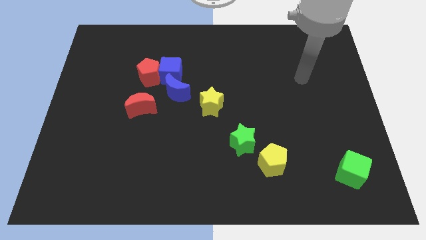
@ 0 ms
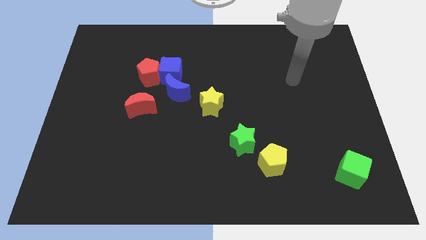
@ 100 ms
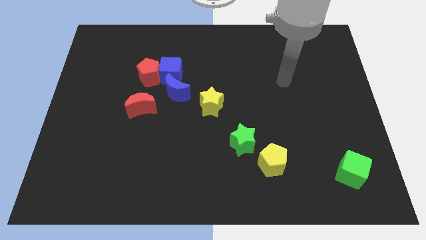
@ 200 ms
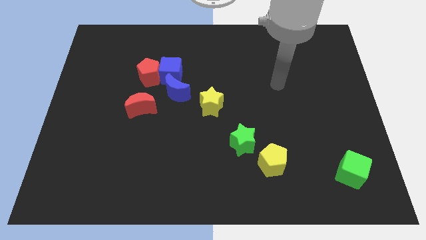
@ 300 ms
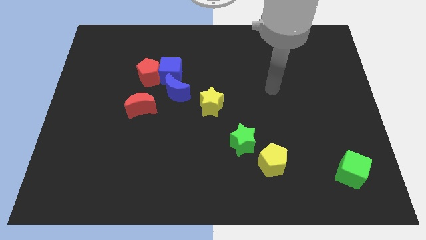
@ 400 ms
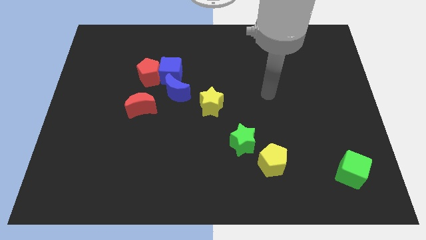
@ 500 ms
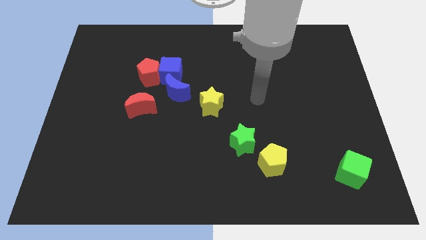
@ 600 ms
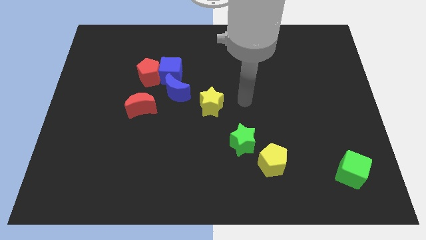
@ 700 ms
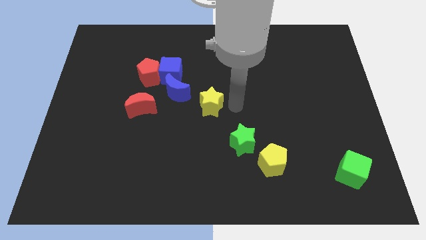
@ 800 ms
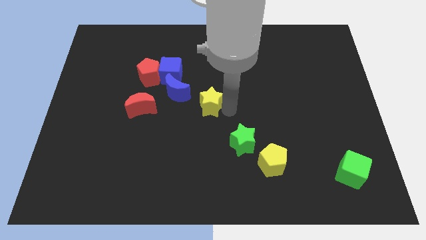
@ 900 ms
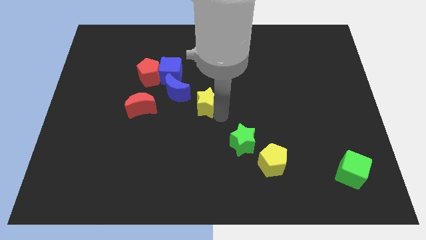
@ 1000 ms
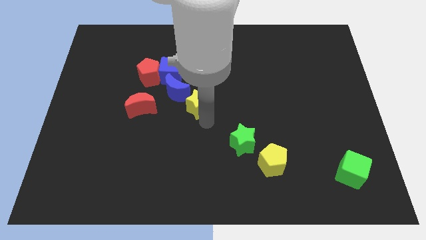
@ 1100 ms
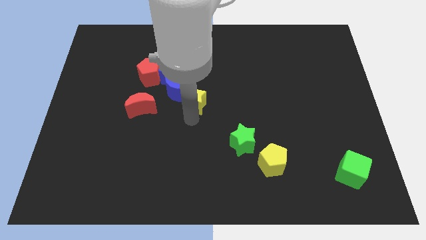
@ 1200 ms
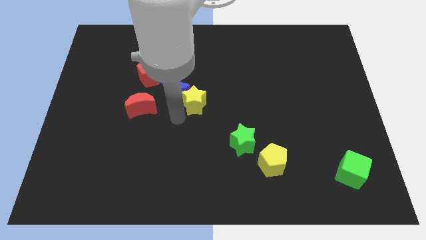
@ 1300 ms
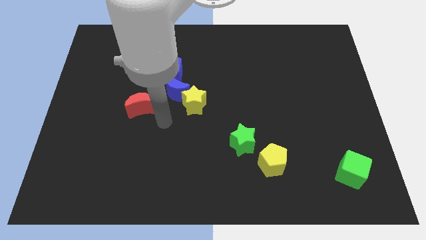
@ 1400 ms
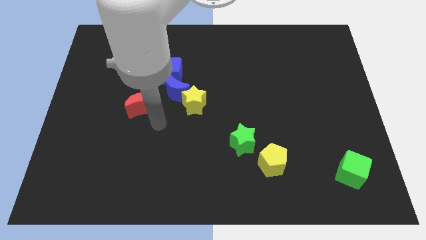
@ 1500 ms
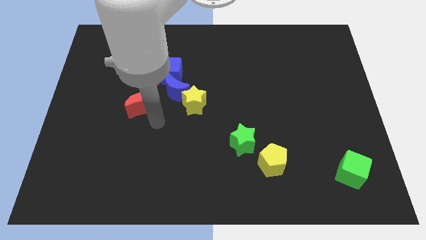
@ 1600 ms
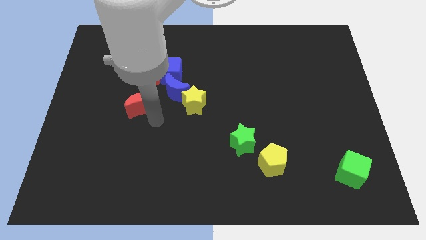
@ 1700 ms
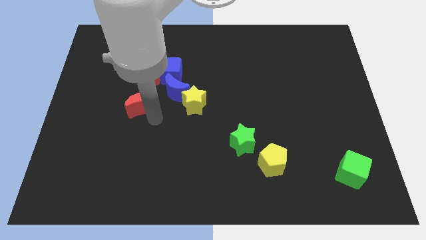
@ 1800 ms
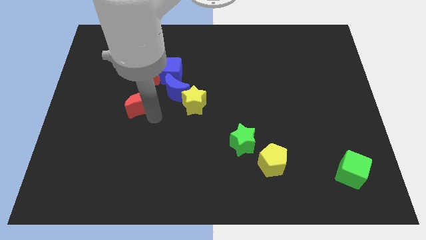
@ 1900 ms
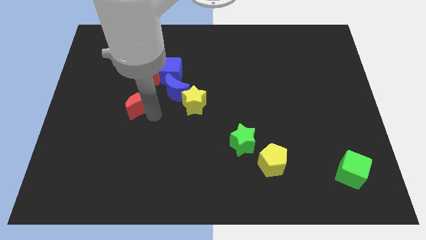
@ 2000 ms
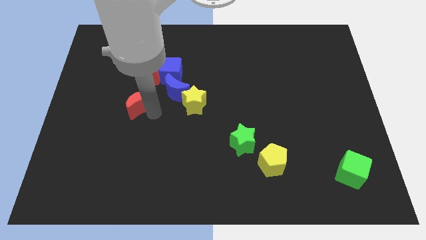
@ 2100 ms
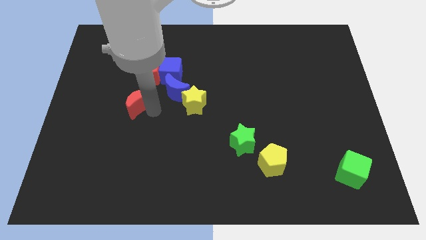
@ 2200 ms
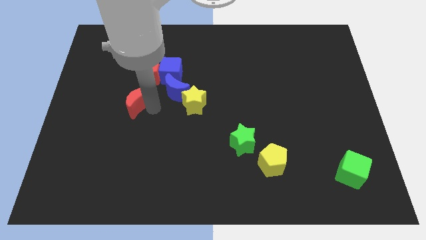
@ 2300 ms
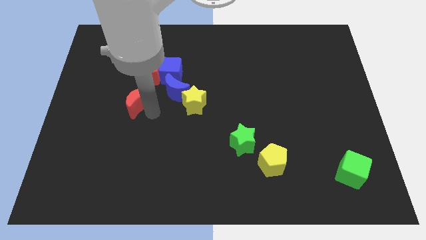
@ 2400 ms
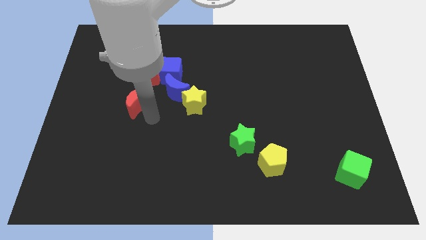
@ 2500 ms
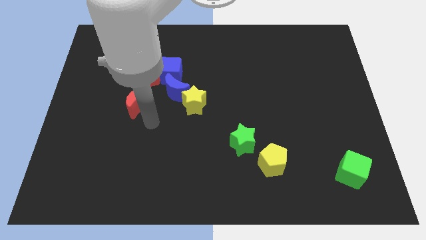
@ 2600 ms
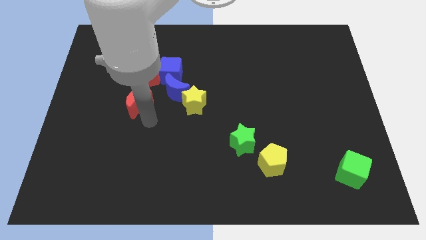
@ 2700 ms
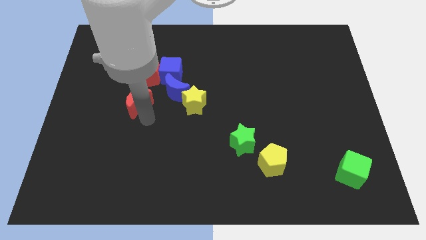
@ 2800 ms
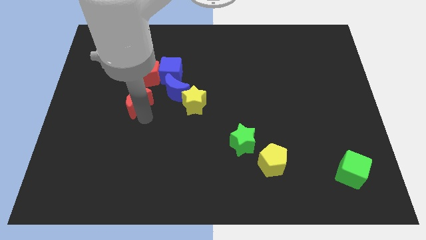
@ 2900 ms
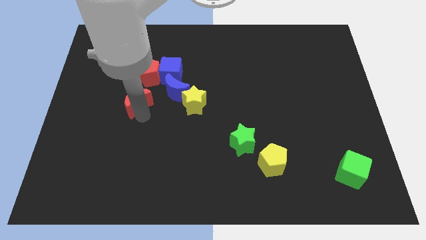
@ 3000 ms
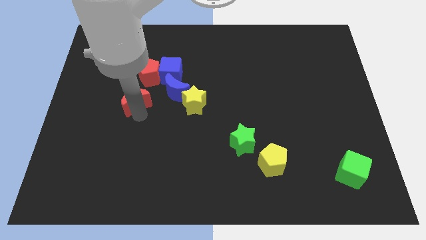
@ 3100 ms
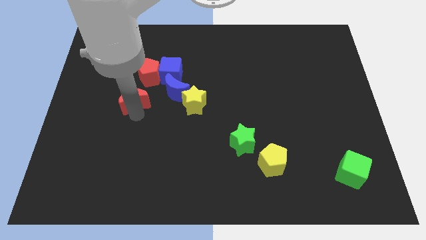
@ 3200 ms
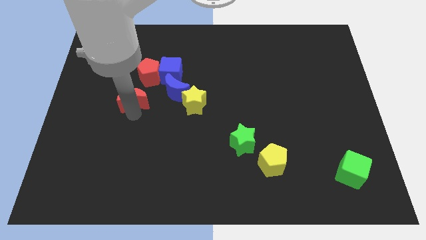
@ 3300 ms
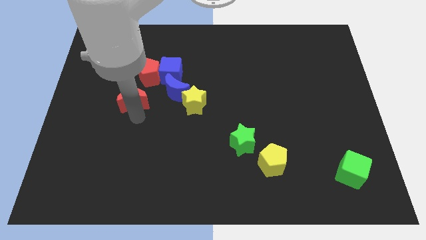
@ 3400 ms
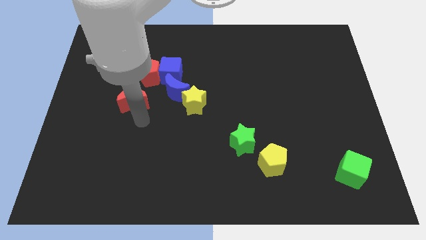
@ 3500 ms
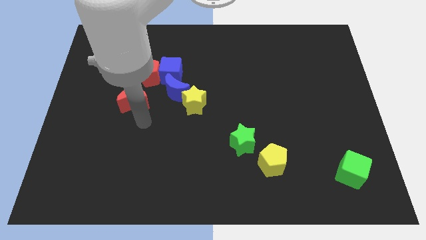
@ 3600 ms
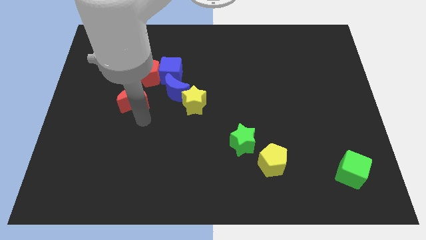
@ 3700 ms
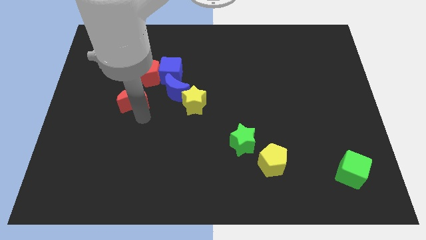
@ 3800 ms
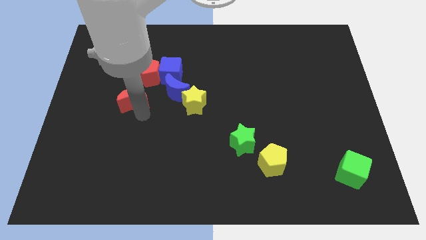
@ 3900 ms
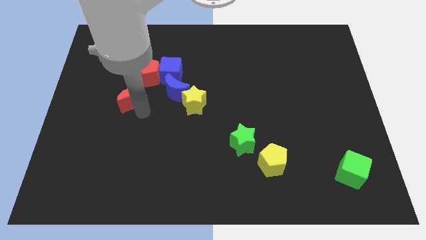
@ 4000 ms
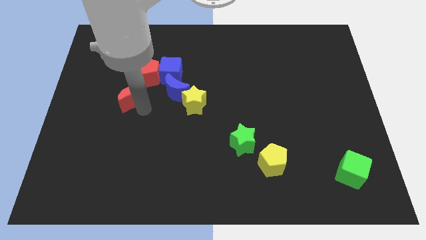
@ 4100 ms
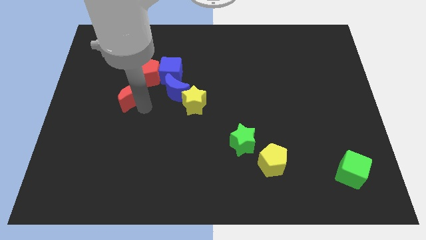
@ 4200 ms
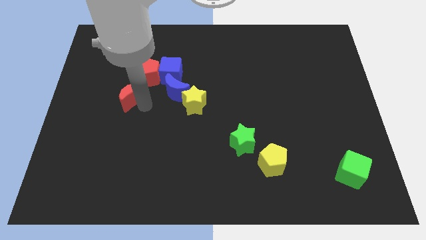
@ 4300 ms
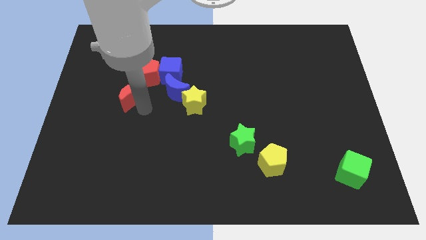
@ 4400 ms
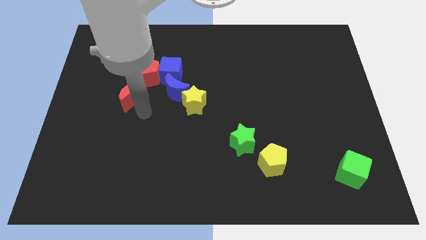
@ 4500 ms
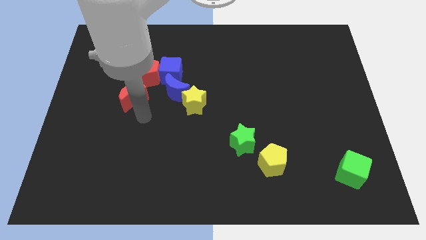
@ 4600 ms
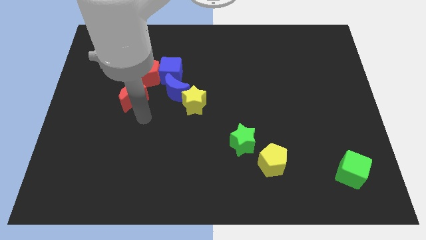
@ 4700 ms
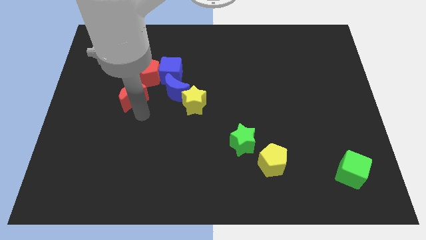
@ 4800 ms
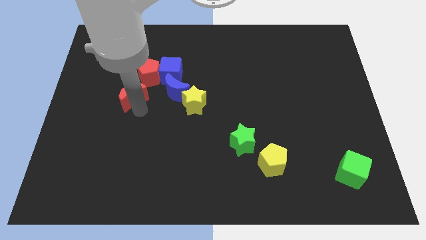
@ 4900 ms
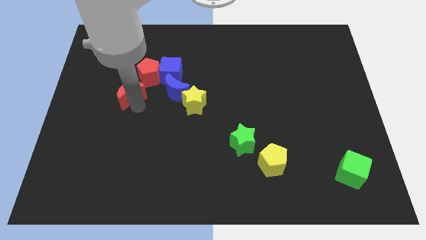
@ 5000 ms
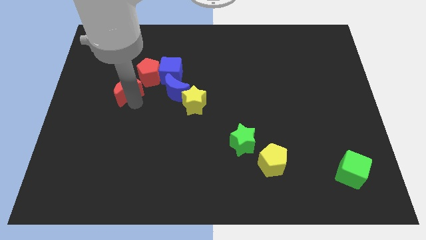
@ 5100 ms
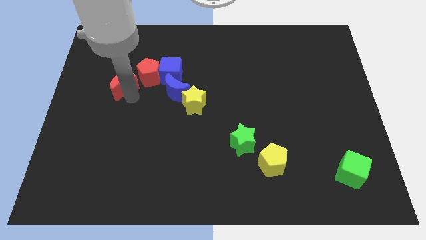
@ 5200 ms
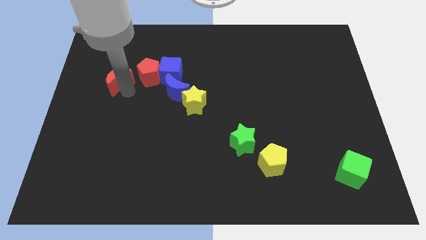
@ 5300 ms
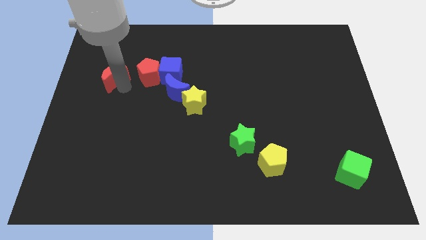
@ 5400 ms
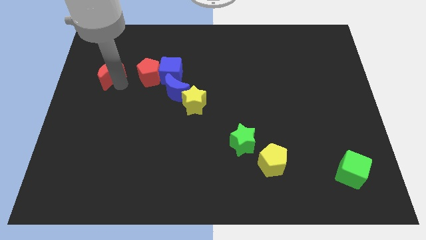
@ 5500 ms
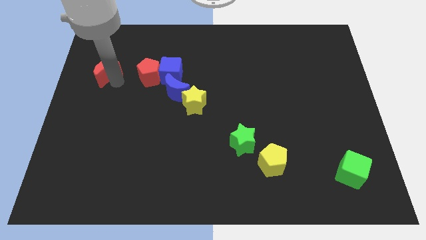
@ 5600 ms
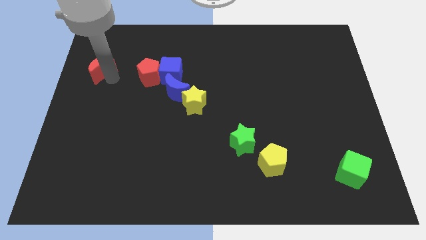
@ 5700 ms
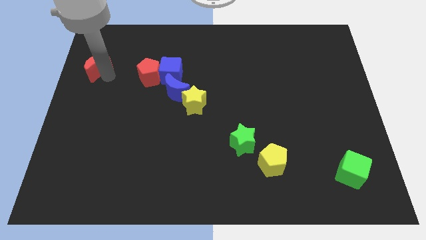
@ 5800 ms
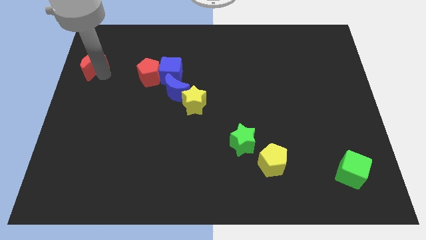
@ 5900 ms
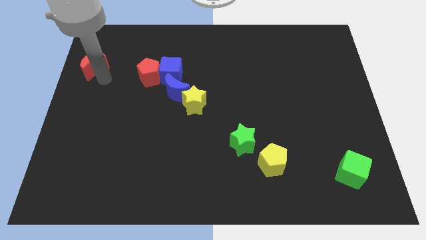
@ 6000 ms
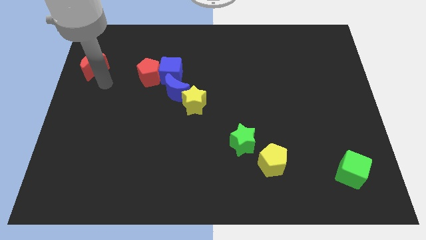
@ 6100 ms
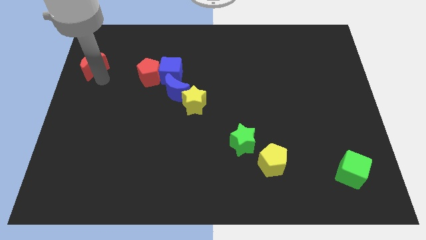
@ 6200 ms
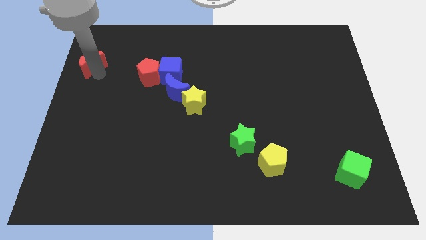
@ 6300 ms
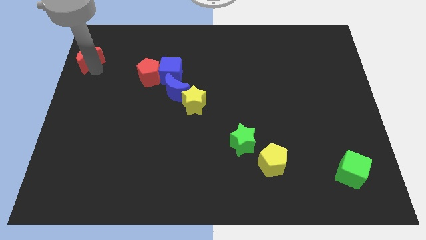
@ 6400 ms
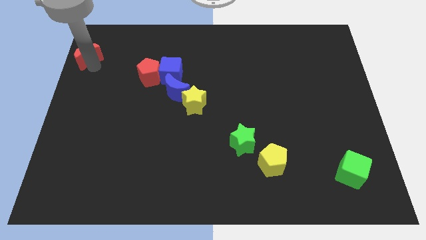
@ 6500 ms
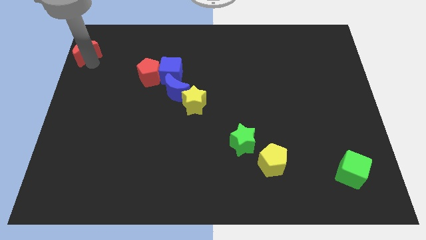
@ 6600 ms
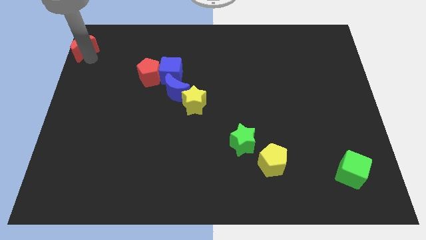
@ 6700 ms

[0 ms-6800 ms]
push the red moon to the top left corner
